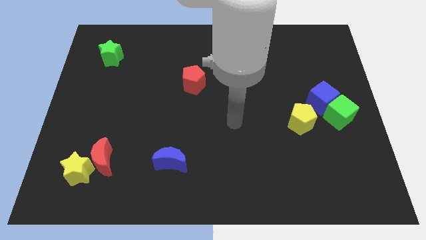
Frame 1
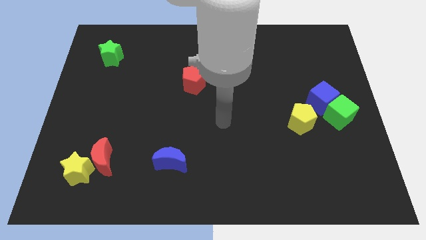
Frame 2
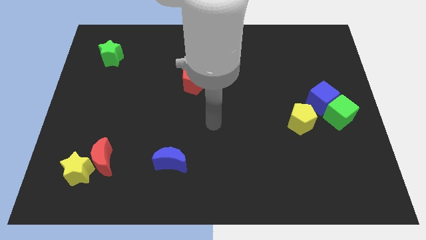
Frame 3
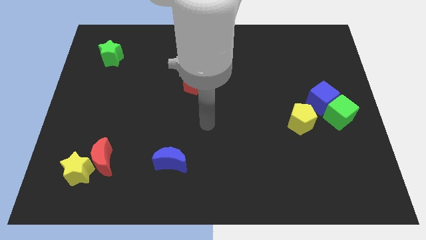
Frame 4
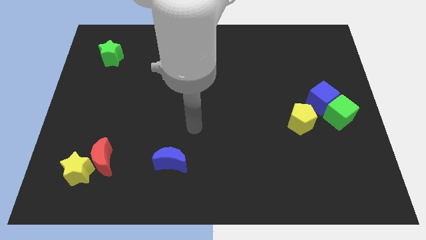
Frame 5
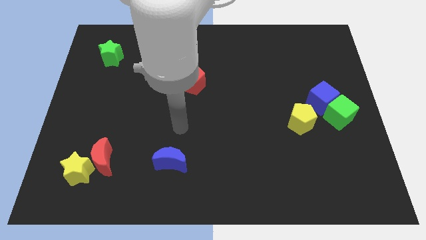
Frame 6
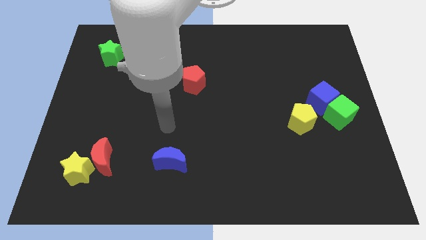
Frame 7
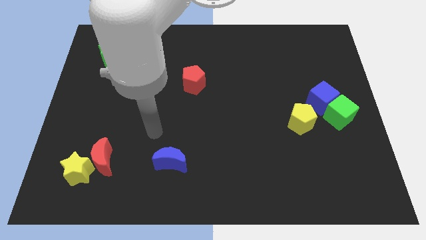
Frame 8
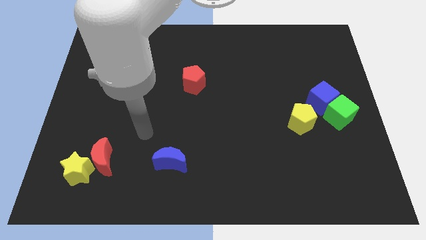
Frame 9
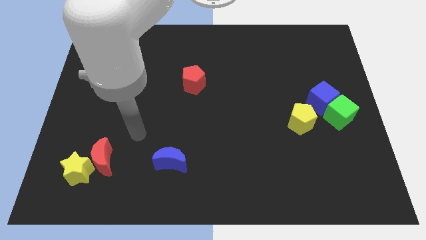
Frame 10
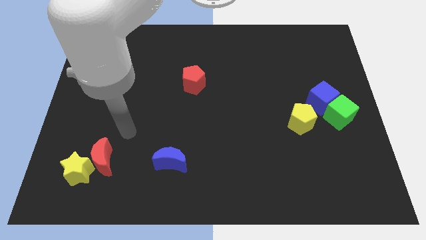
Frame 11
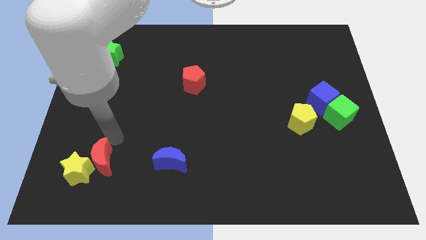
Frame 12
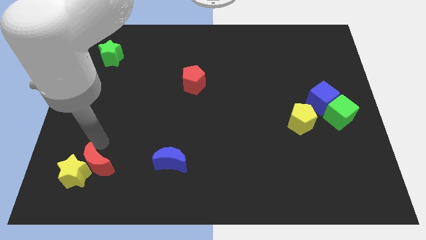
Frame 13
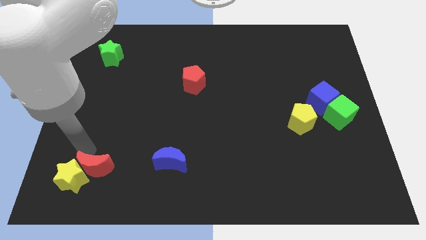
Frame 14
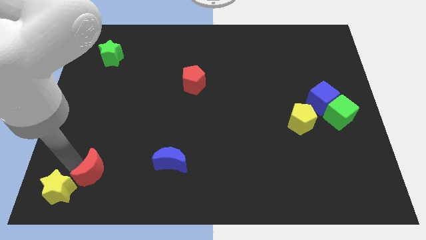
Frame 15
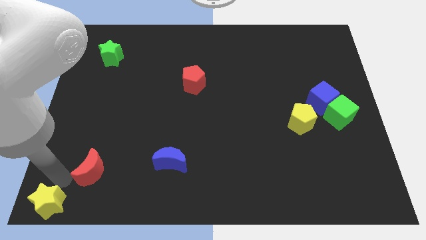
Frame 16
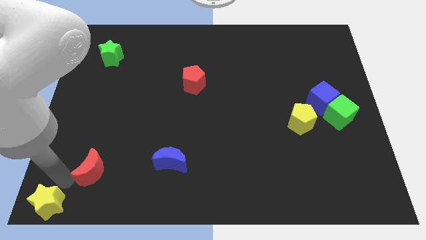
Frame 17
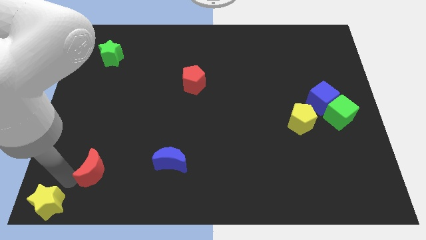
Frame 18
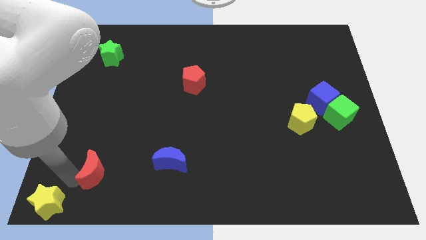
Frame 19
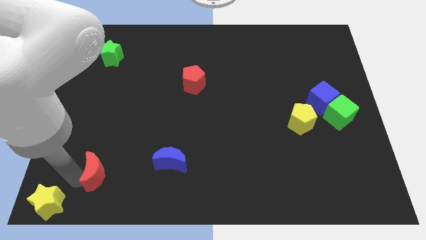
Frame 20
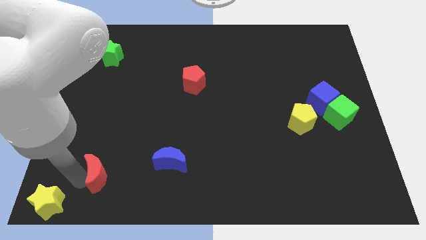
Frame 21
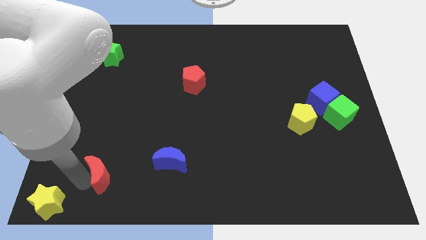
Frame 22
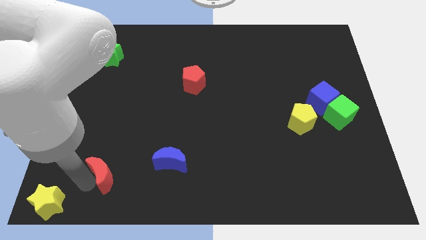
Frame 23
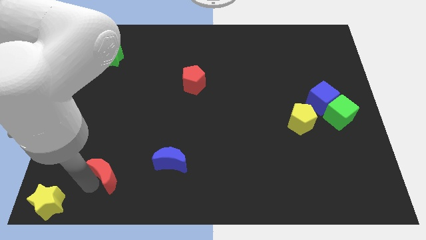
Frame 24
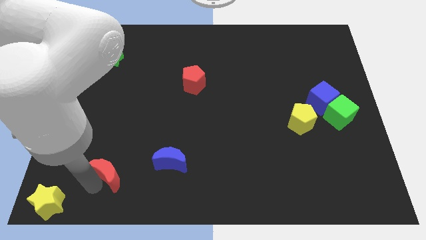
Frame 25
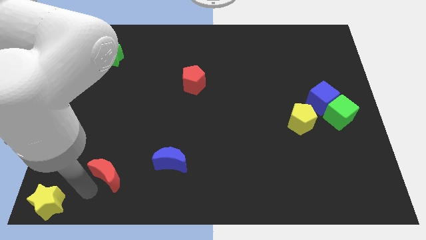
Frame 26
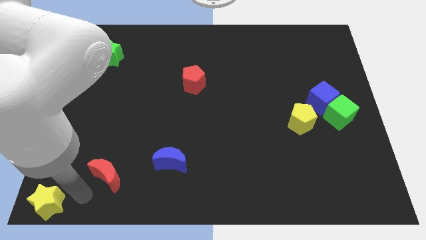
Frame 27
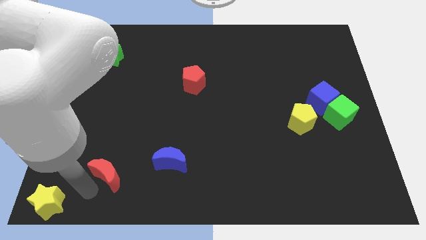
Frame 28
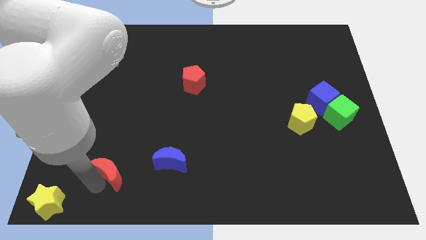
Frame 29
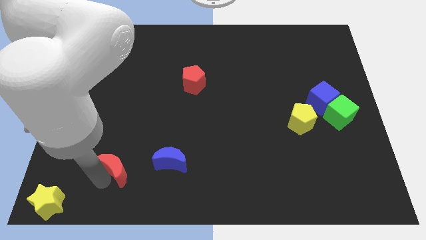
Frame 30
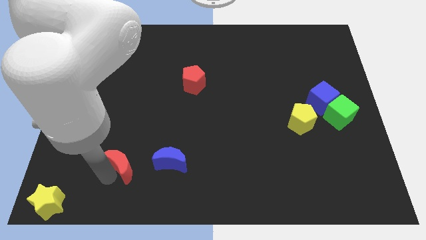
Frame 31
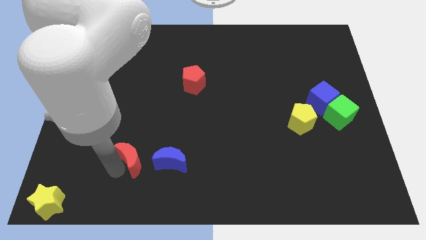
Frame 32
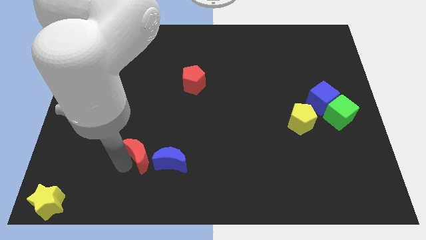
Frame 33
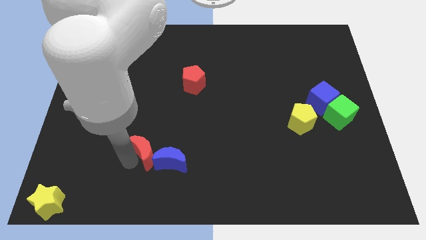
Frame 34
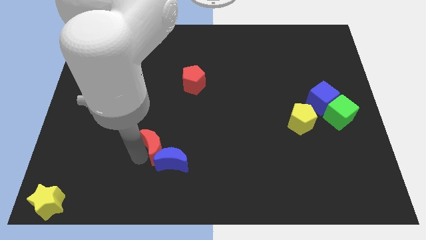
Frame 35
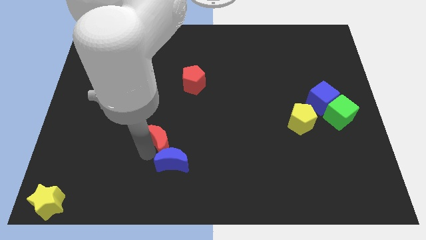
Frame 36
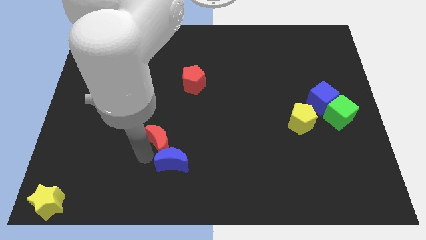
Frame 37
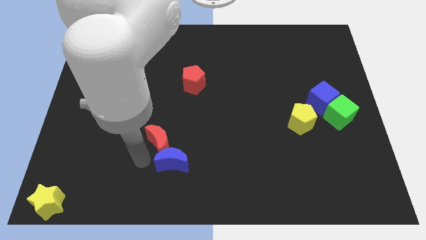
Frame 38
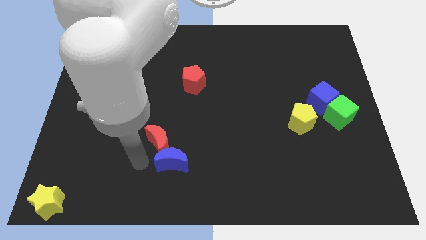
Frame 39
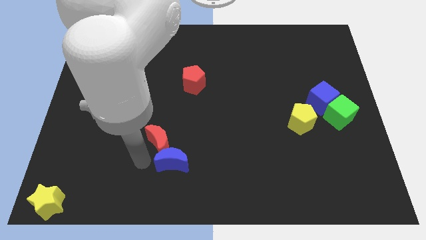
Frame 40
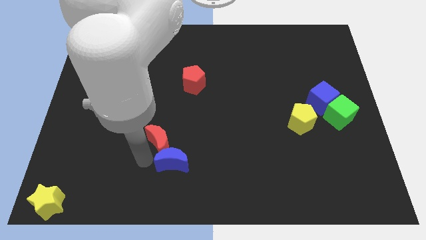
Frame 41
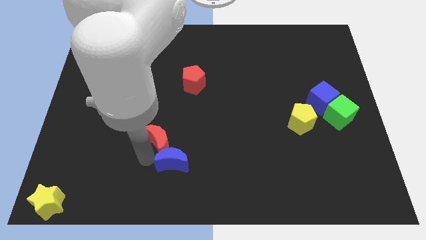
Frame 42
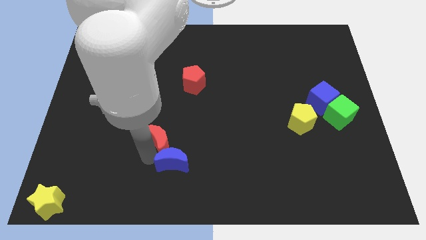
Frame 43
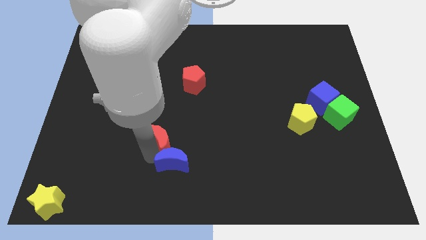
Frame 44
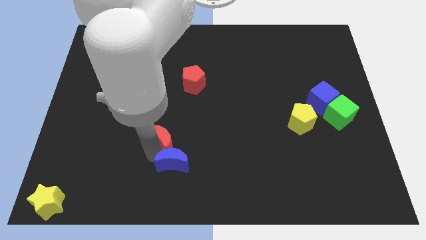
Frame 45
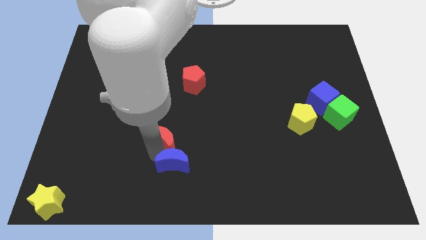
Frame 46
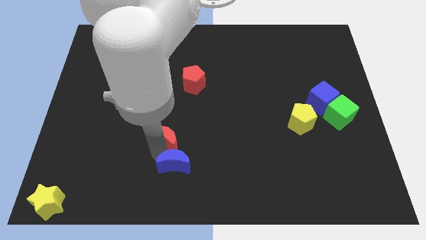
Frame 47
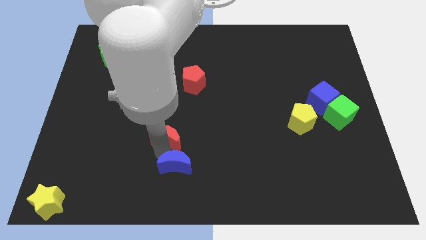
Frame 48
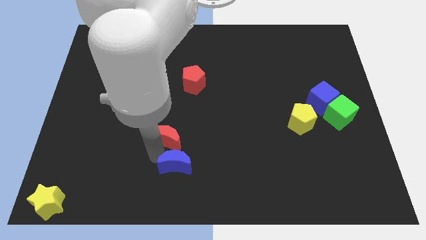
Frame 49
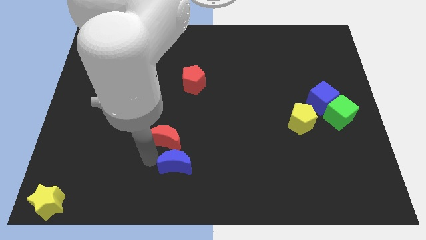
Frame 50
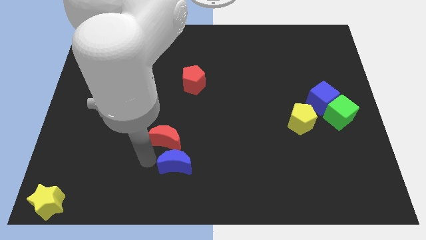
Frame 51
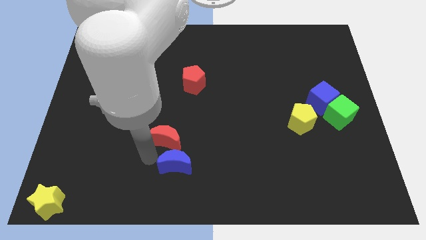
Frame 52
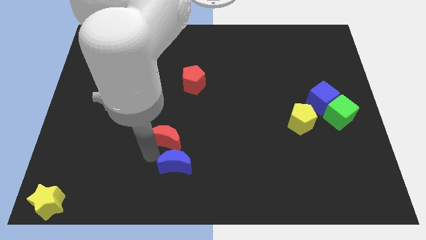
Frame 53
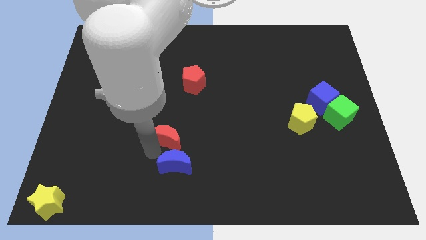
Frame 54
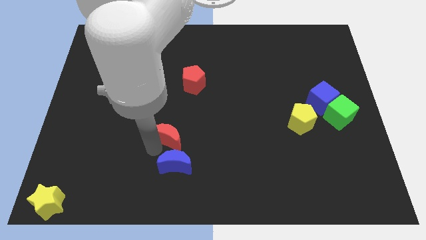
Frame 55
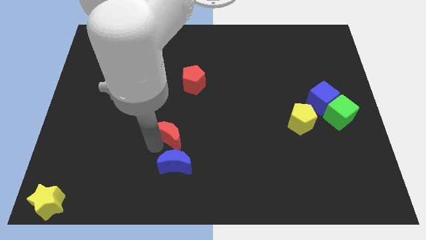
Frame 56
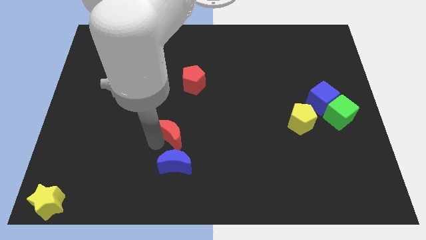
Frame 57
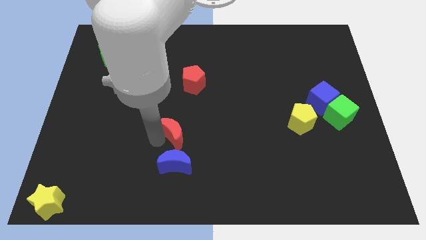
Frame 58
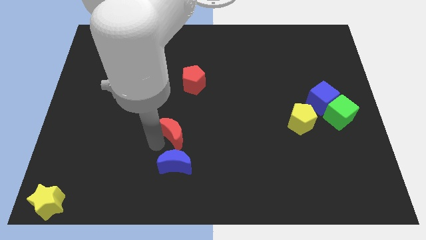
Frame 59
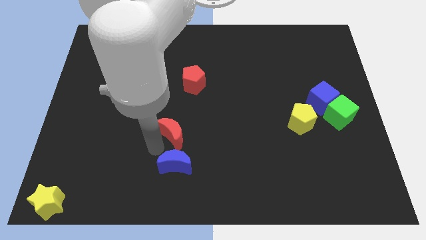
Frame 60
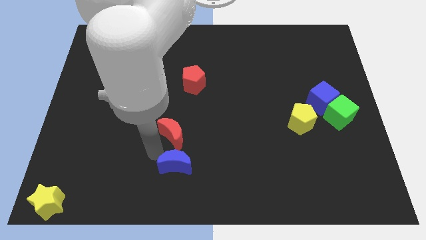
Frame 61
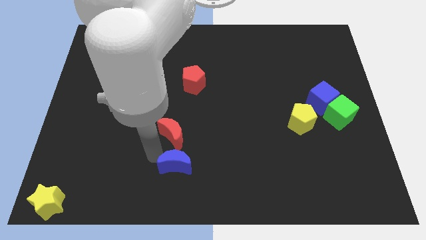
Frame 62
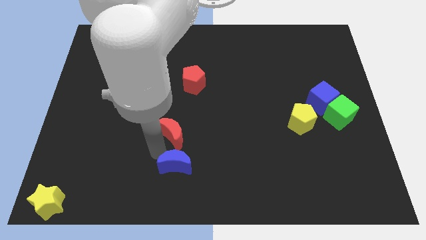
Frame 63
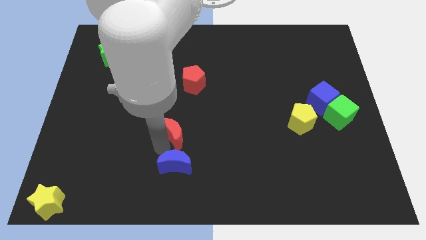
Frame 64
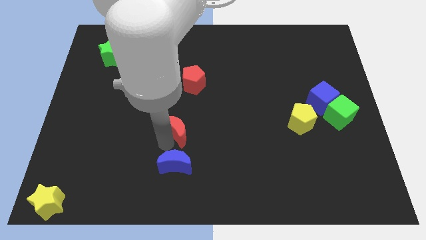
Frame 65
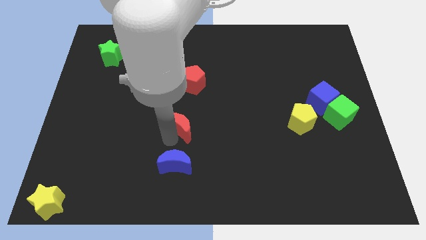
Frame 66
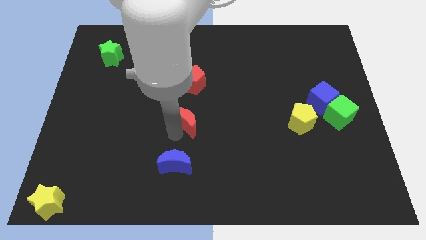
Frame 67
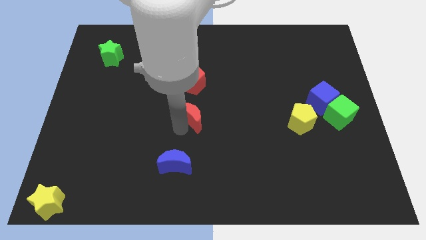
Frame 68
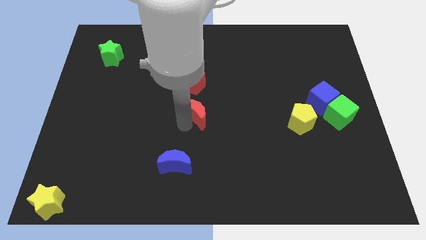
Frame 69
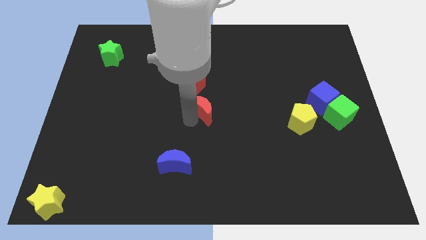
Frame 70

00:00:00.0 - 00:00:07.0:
put the red moon to the bottom right side of the red pentagon

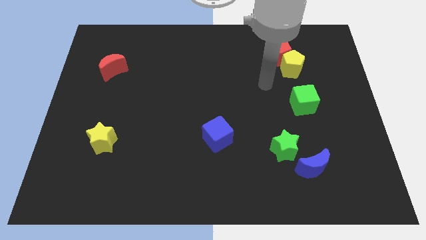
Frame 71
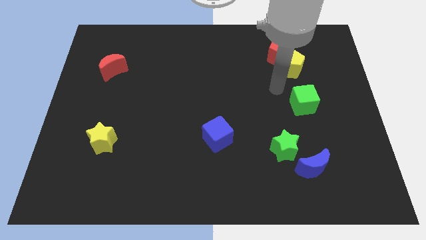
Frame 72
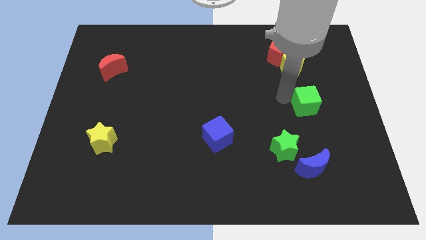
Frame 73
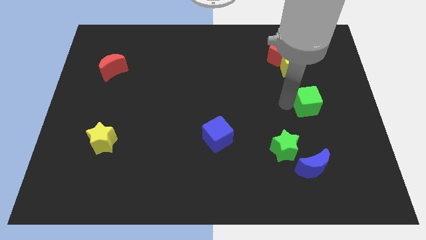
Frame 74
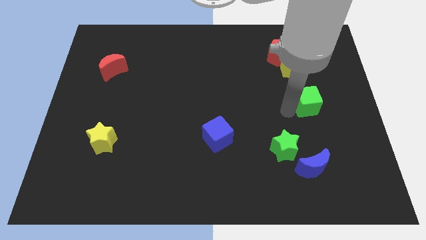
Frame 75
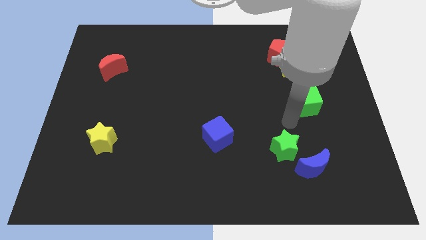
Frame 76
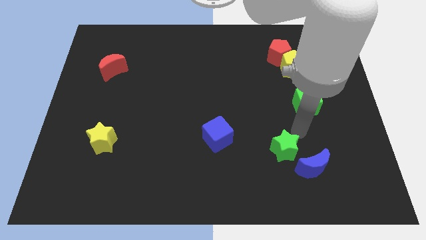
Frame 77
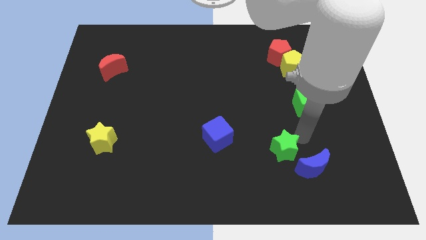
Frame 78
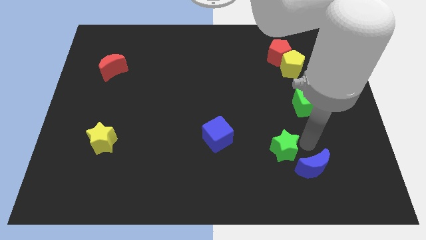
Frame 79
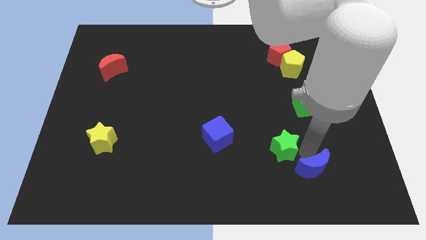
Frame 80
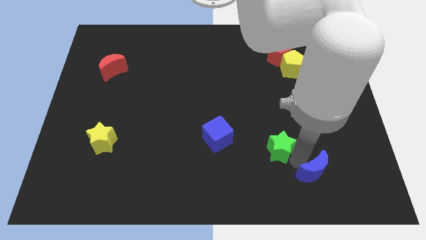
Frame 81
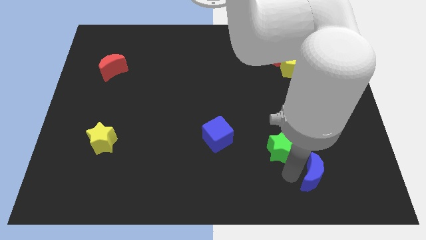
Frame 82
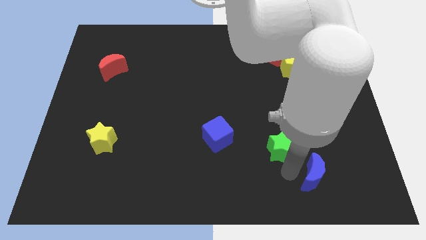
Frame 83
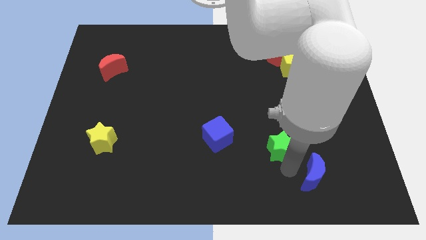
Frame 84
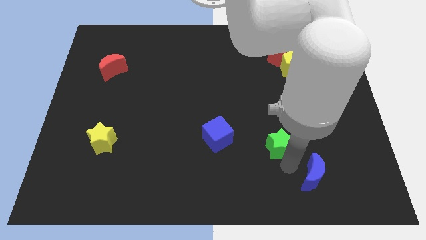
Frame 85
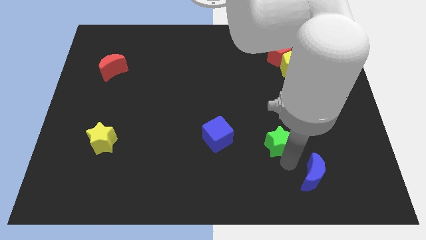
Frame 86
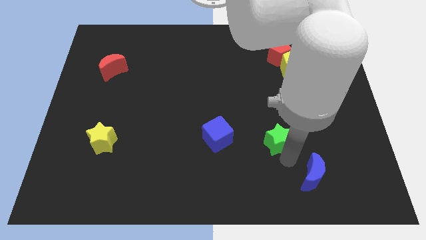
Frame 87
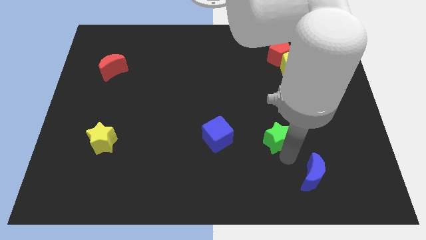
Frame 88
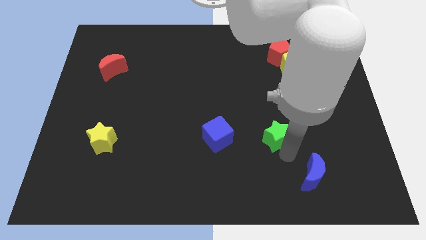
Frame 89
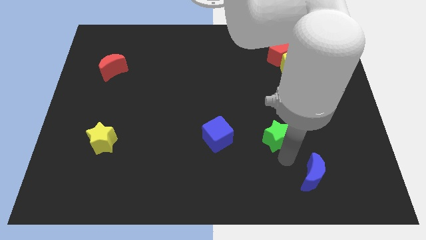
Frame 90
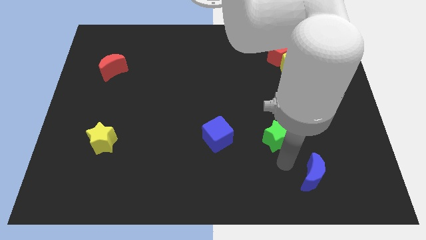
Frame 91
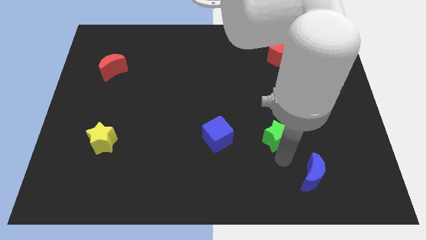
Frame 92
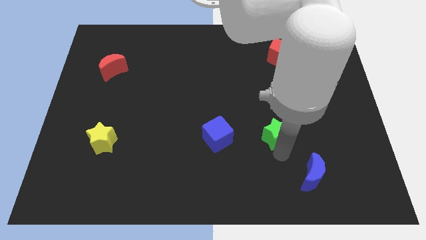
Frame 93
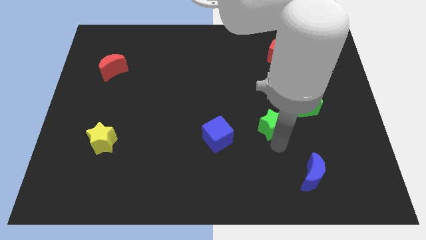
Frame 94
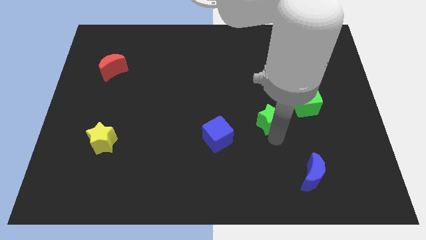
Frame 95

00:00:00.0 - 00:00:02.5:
put the green star just left of the green cube
